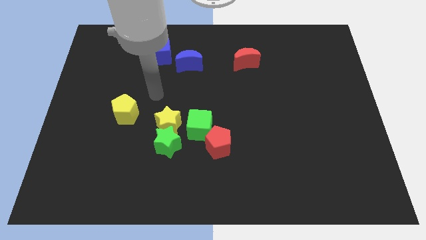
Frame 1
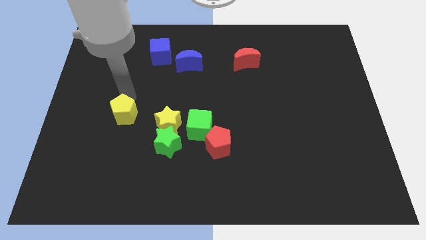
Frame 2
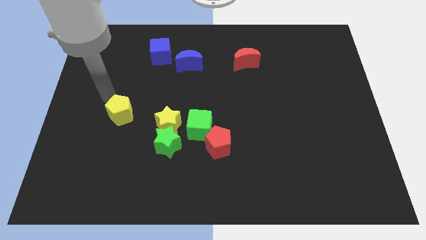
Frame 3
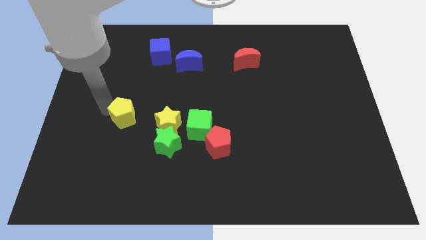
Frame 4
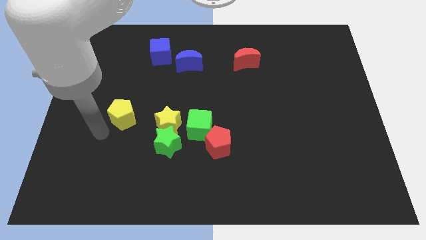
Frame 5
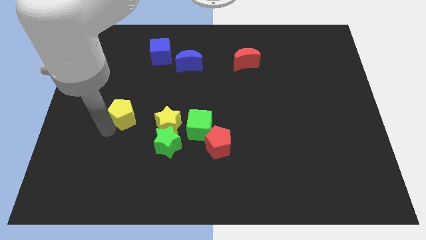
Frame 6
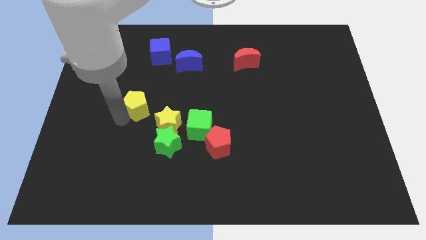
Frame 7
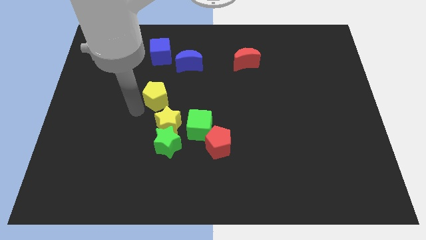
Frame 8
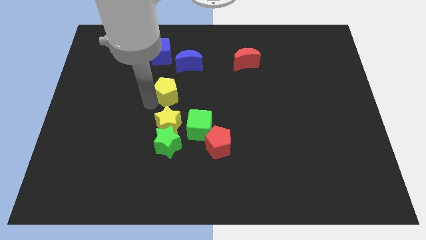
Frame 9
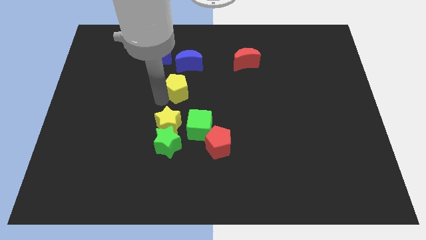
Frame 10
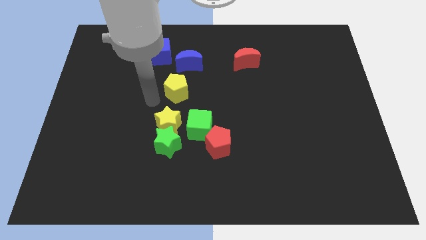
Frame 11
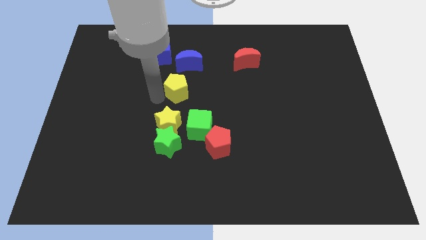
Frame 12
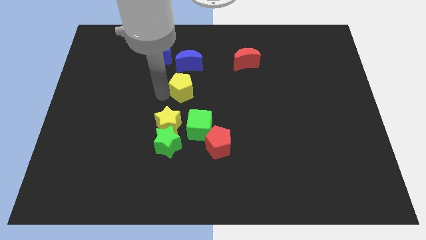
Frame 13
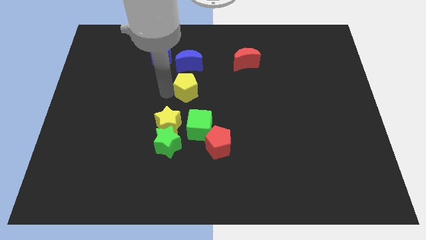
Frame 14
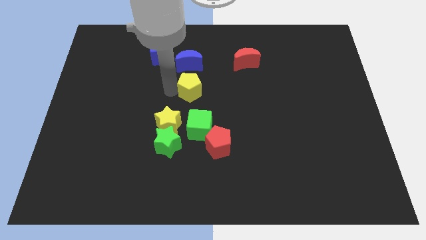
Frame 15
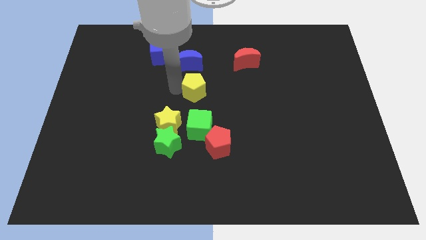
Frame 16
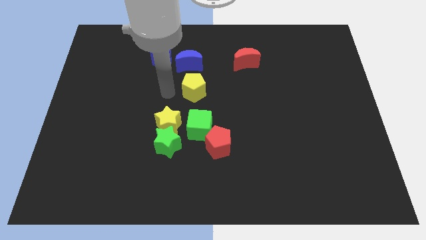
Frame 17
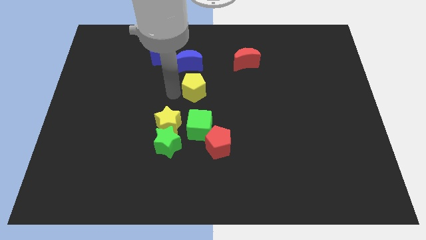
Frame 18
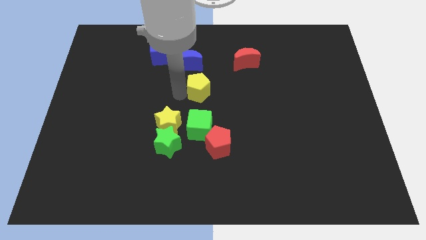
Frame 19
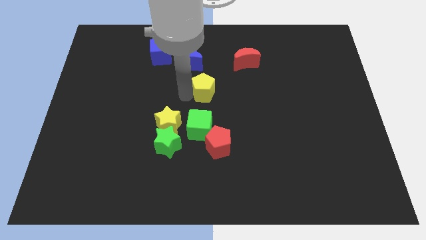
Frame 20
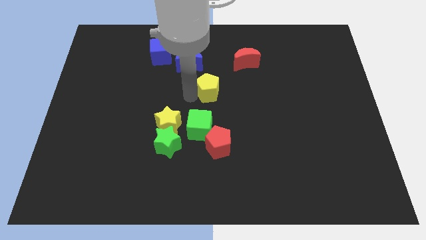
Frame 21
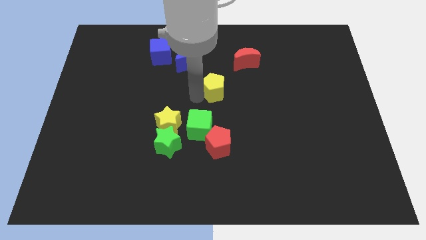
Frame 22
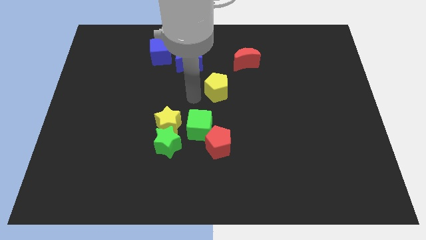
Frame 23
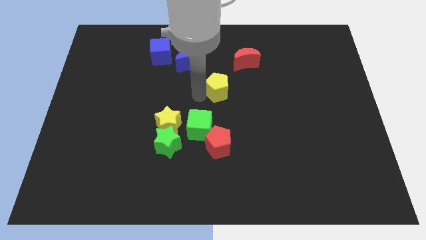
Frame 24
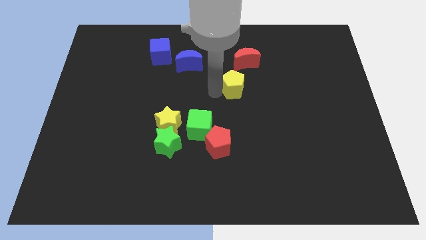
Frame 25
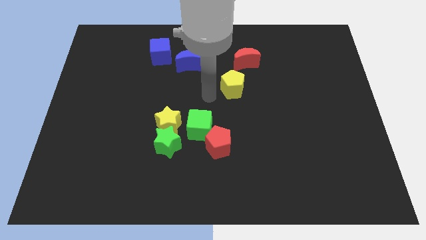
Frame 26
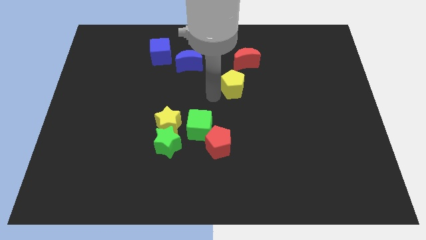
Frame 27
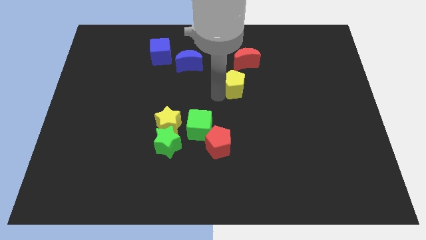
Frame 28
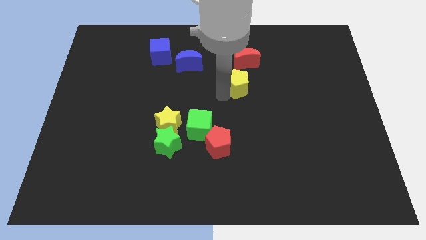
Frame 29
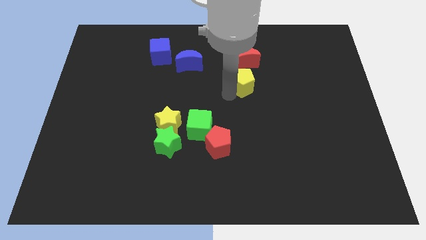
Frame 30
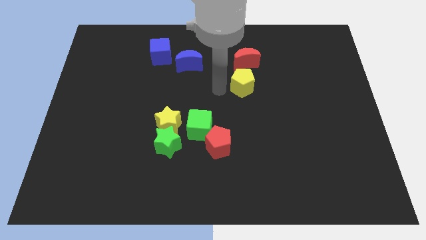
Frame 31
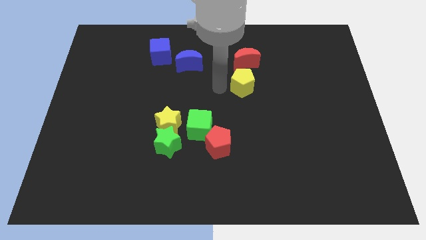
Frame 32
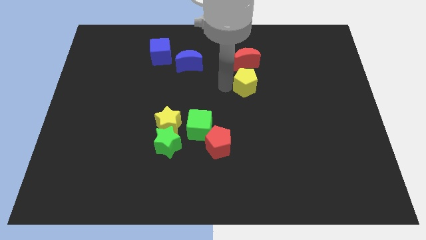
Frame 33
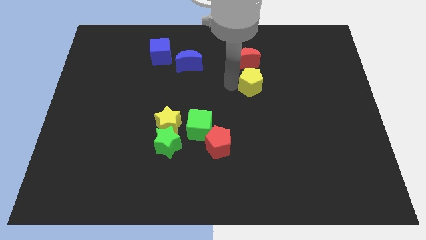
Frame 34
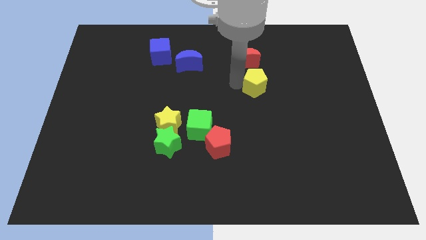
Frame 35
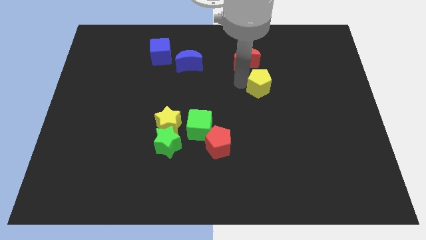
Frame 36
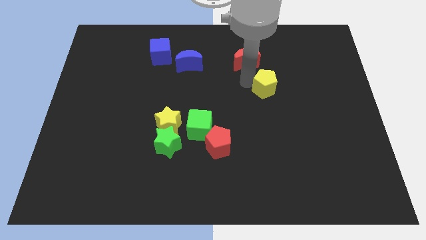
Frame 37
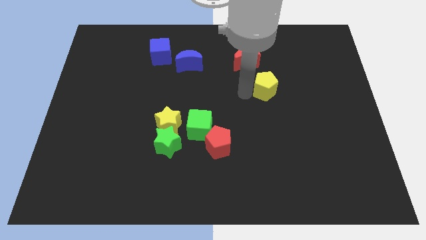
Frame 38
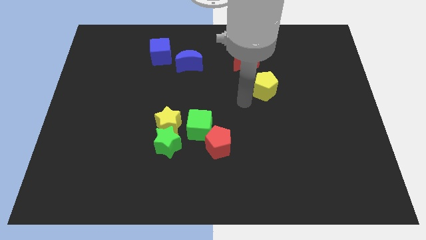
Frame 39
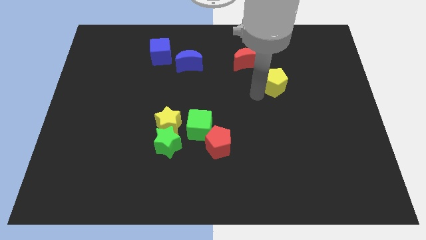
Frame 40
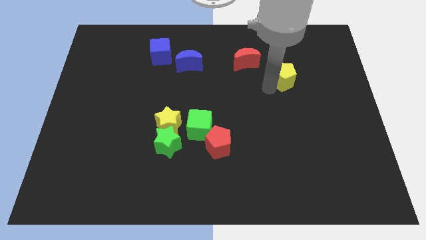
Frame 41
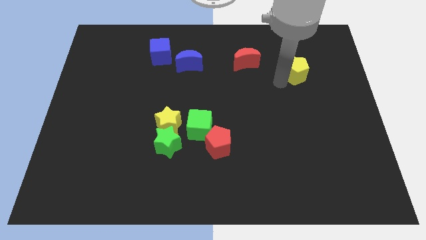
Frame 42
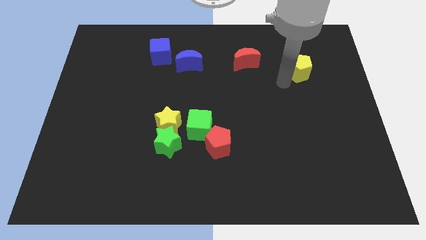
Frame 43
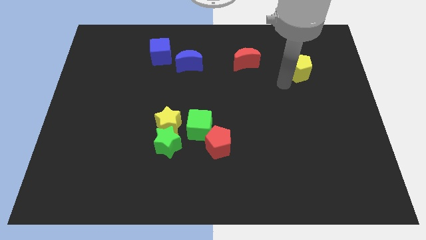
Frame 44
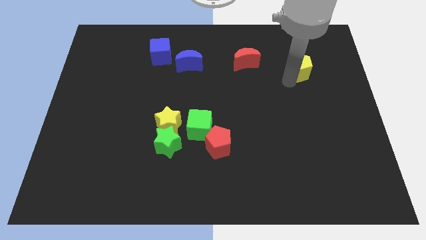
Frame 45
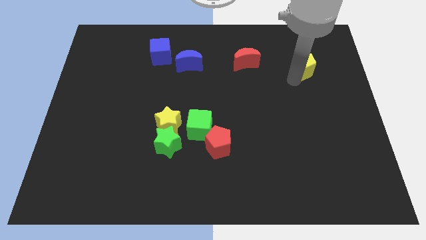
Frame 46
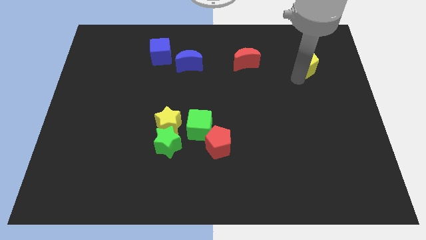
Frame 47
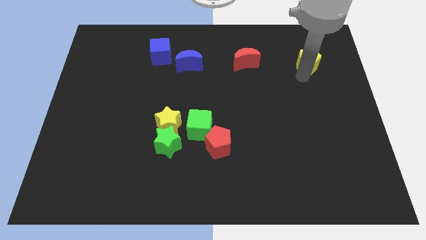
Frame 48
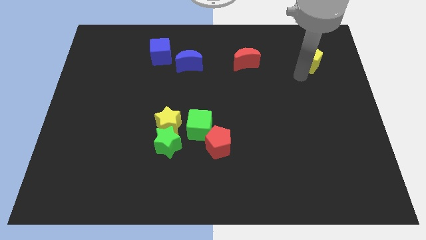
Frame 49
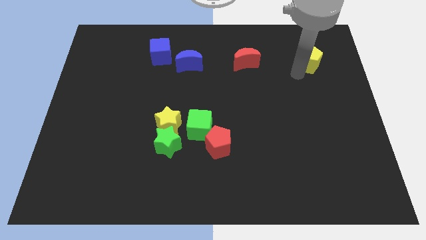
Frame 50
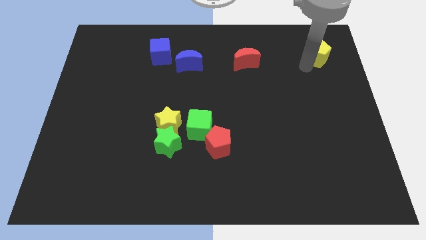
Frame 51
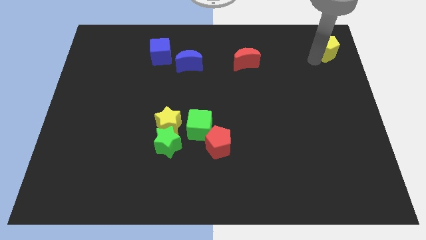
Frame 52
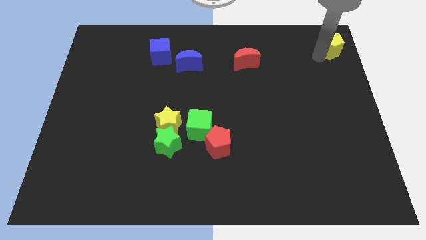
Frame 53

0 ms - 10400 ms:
move the yellow pentagon to the top right

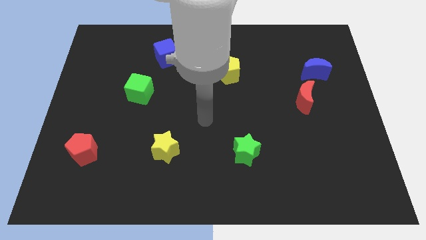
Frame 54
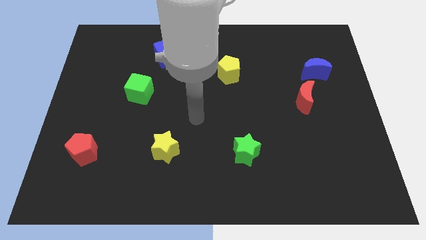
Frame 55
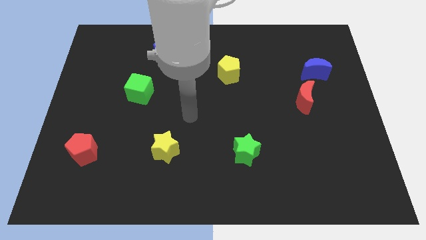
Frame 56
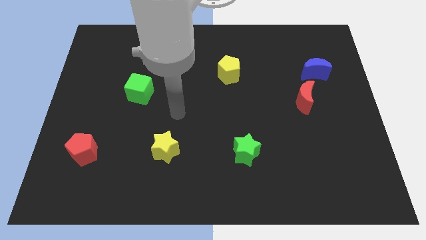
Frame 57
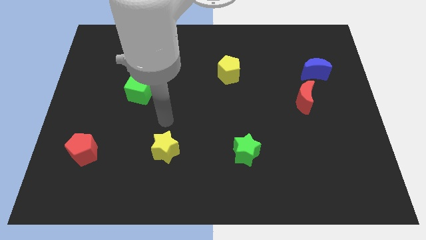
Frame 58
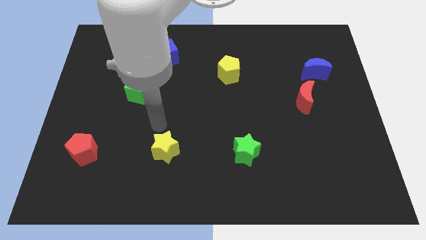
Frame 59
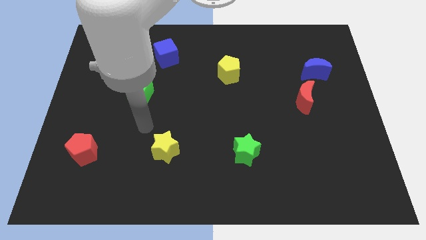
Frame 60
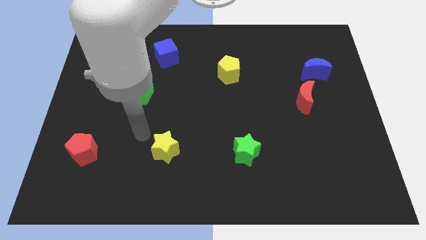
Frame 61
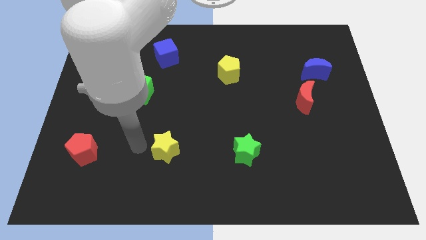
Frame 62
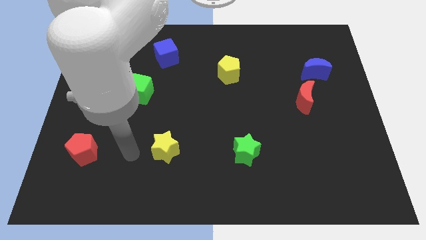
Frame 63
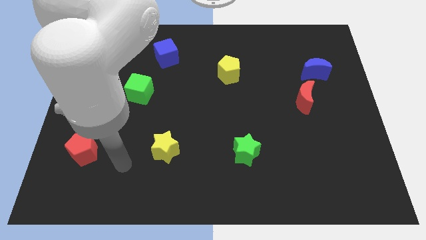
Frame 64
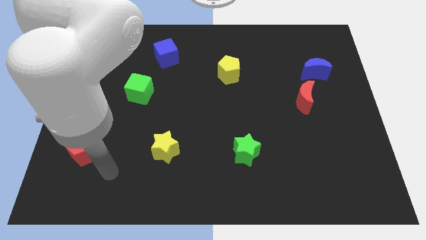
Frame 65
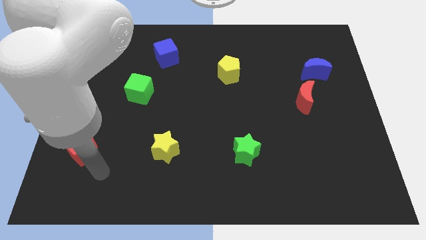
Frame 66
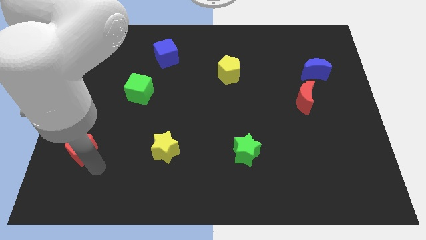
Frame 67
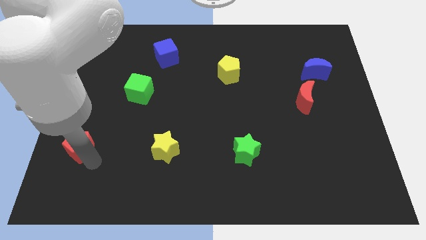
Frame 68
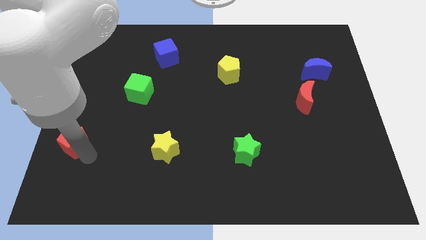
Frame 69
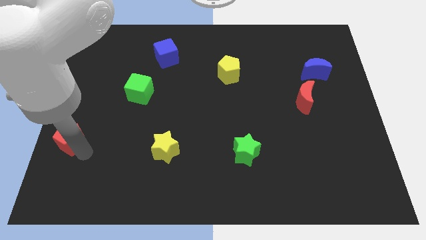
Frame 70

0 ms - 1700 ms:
slide the red pentagon to the left side of the board
